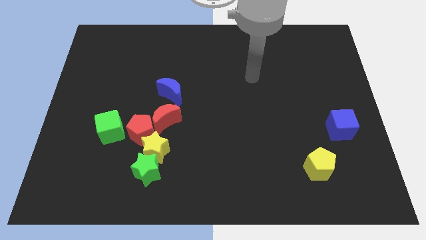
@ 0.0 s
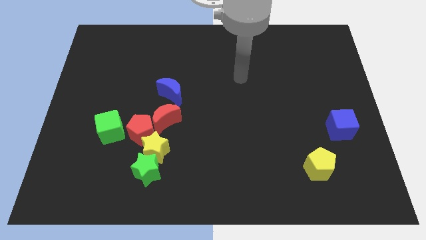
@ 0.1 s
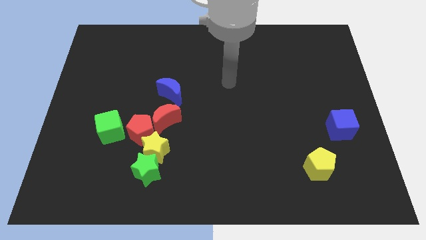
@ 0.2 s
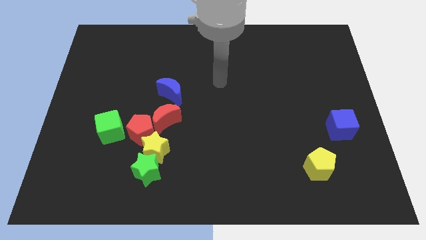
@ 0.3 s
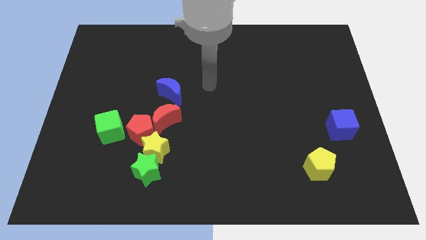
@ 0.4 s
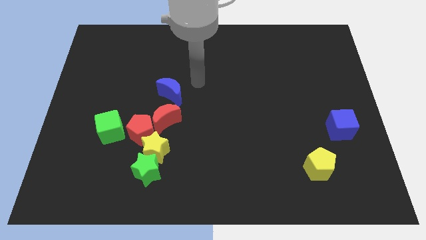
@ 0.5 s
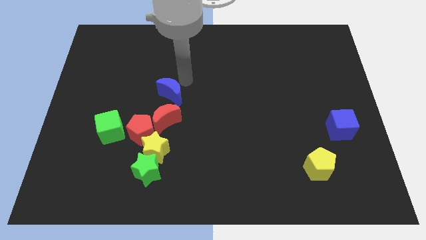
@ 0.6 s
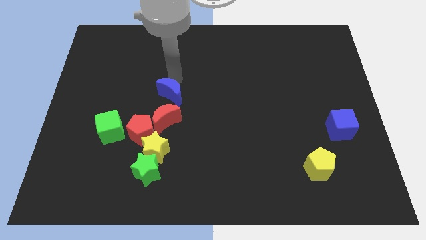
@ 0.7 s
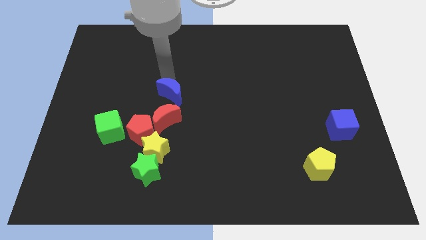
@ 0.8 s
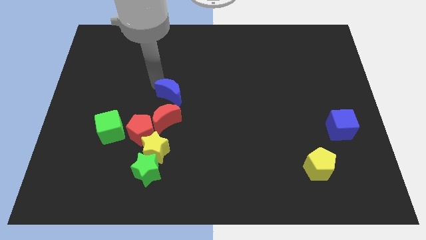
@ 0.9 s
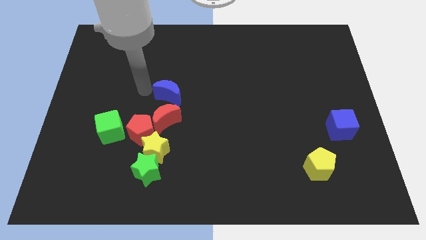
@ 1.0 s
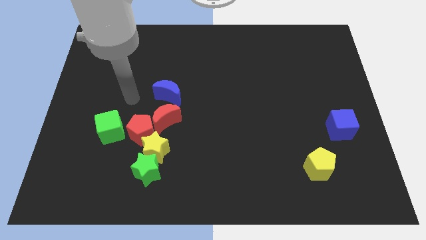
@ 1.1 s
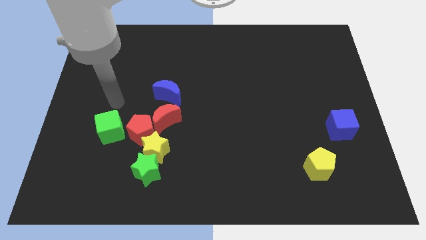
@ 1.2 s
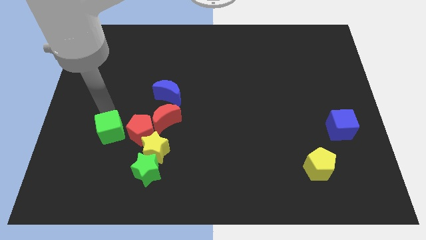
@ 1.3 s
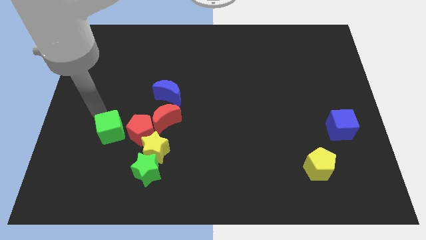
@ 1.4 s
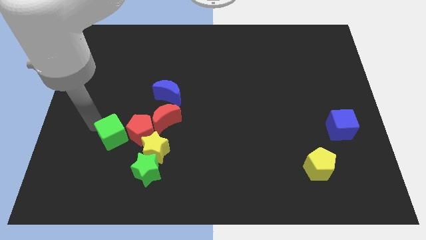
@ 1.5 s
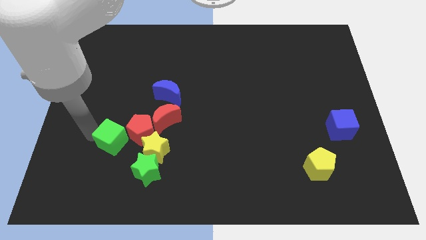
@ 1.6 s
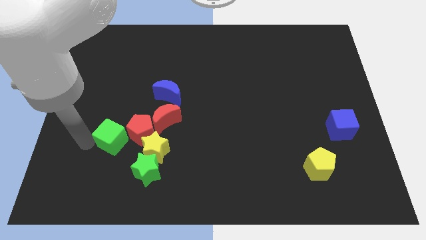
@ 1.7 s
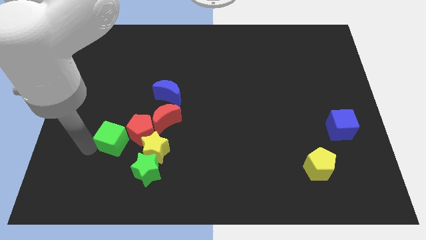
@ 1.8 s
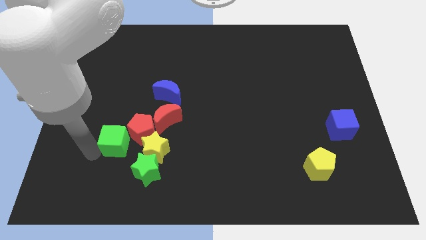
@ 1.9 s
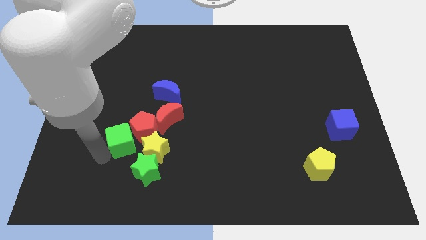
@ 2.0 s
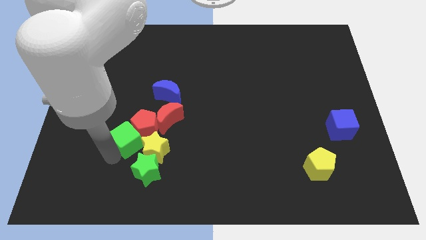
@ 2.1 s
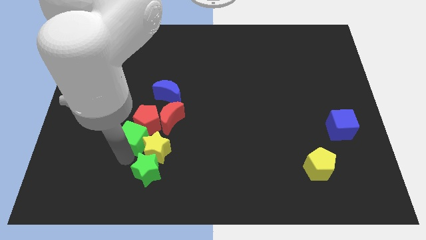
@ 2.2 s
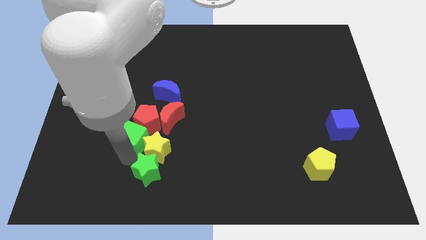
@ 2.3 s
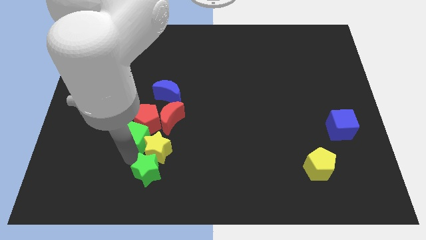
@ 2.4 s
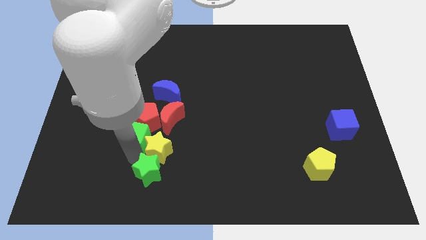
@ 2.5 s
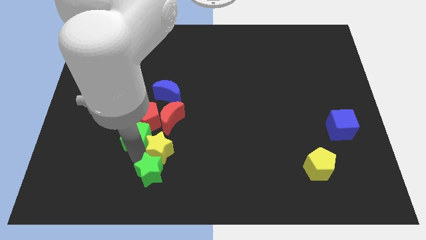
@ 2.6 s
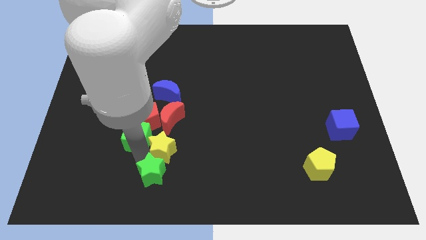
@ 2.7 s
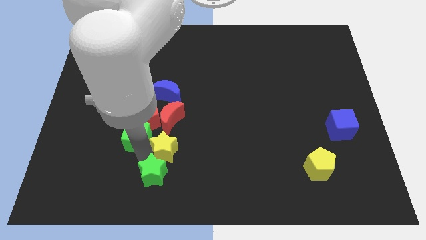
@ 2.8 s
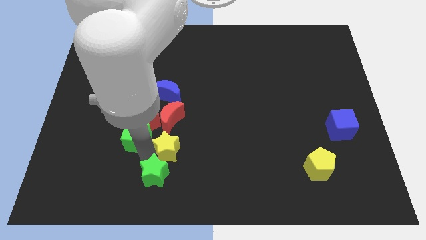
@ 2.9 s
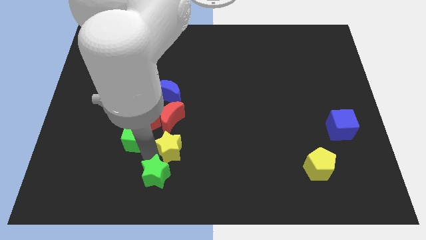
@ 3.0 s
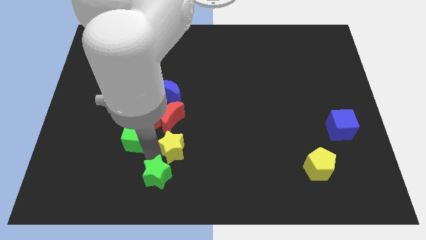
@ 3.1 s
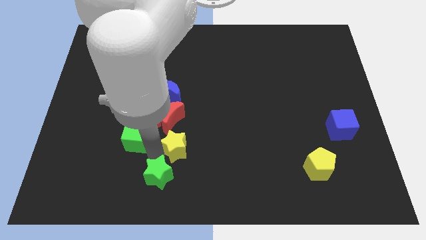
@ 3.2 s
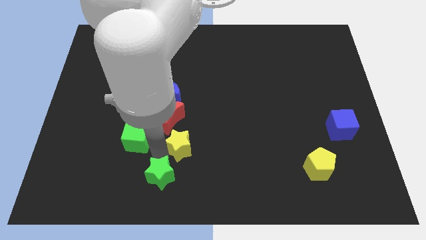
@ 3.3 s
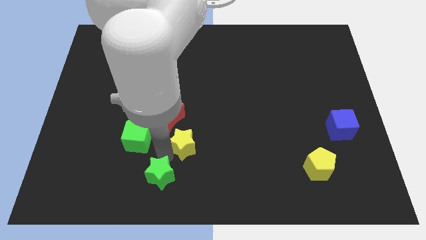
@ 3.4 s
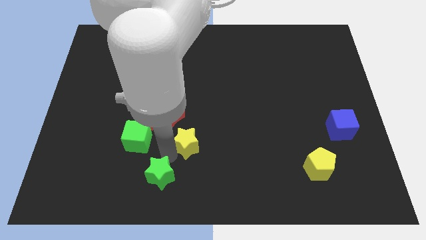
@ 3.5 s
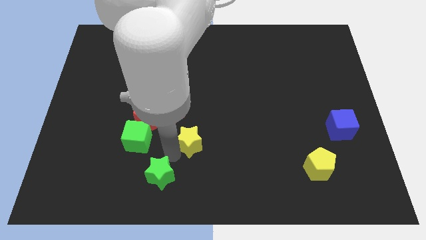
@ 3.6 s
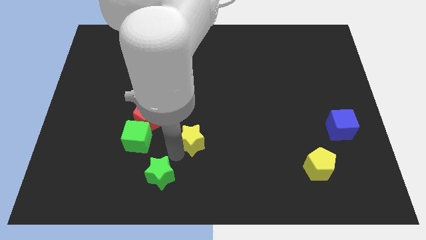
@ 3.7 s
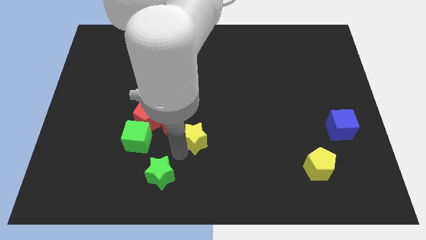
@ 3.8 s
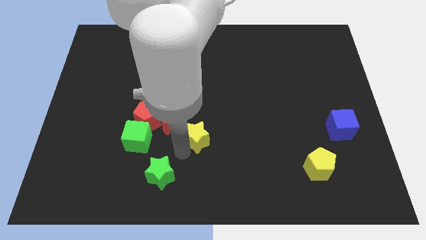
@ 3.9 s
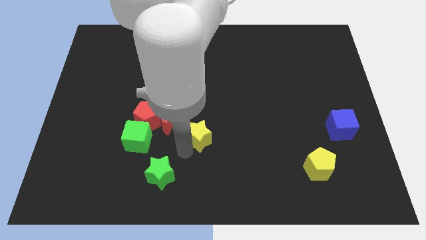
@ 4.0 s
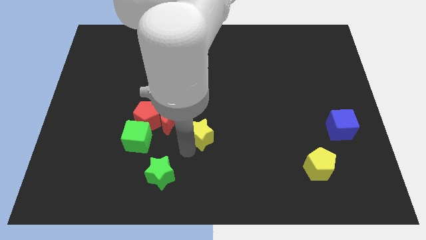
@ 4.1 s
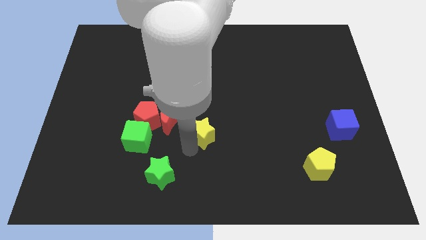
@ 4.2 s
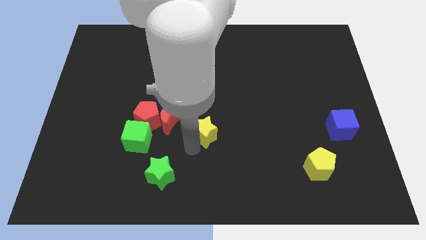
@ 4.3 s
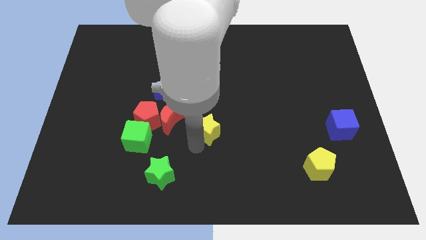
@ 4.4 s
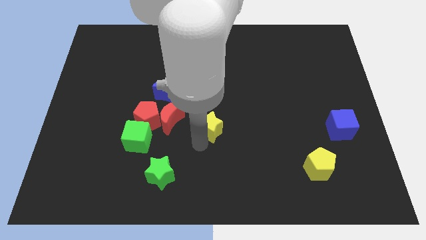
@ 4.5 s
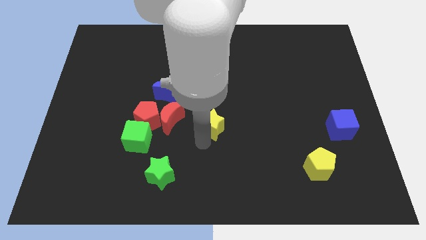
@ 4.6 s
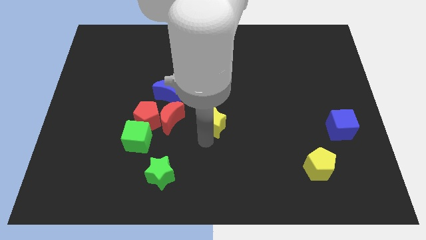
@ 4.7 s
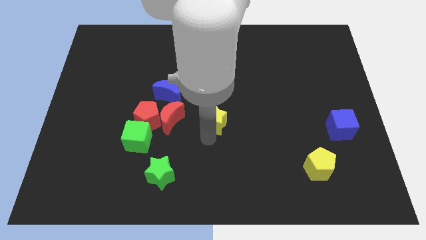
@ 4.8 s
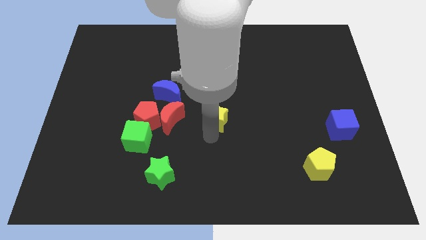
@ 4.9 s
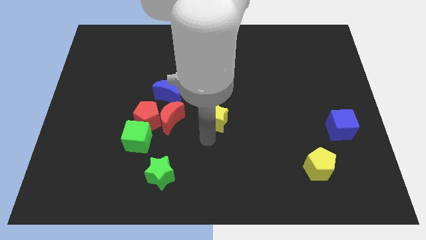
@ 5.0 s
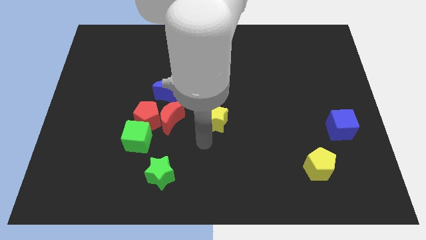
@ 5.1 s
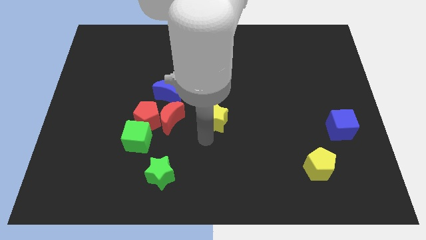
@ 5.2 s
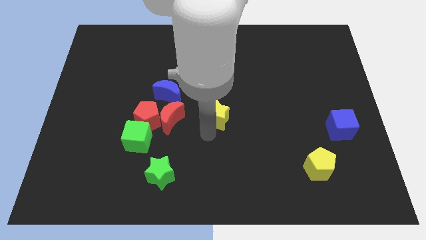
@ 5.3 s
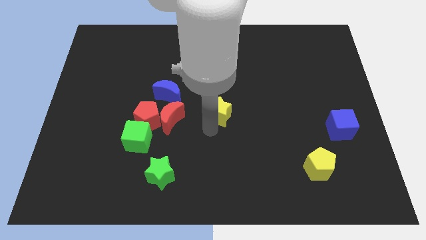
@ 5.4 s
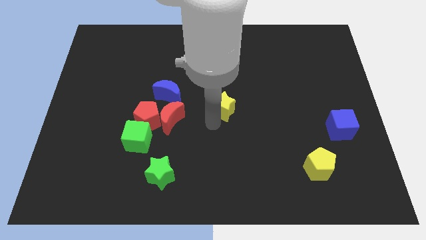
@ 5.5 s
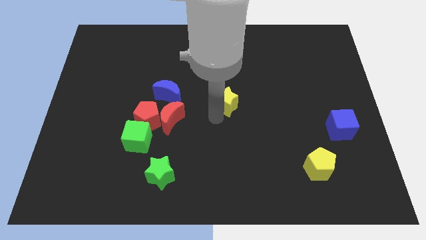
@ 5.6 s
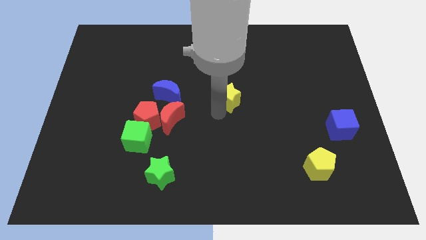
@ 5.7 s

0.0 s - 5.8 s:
slide the yellow star diagonally up and to the right

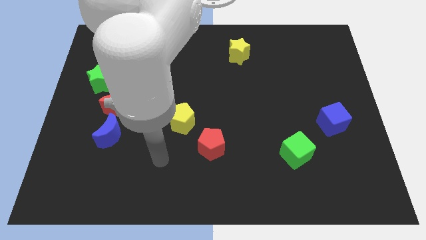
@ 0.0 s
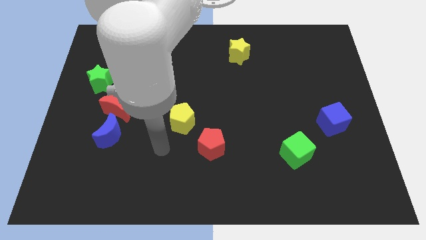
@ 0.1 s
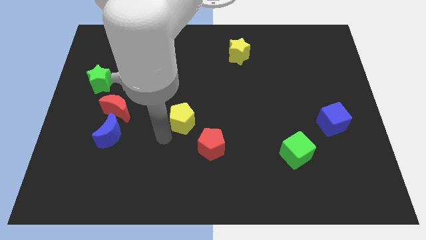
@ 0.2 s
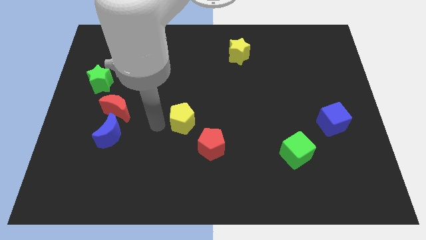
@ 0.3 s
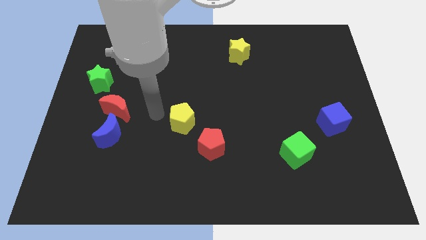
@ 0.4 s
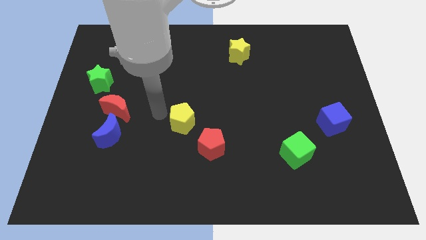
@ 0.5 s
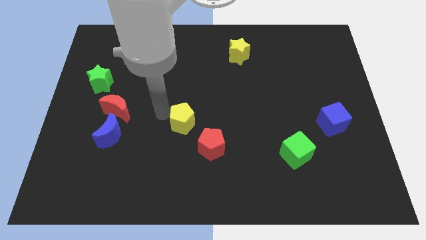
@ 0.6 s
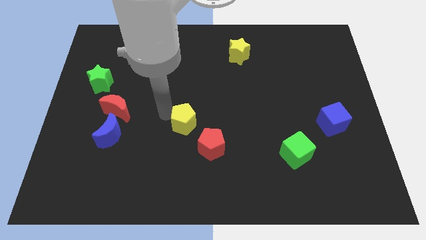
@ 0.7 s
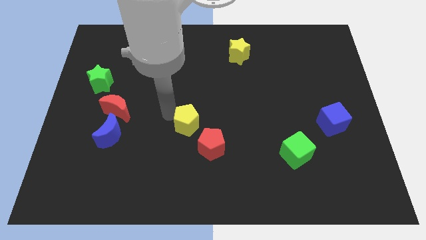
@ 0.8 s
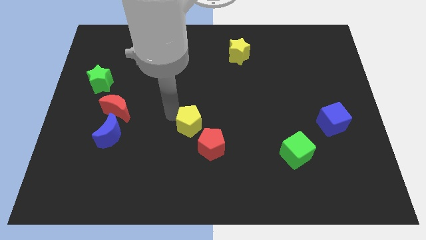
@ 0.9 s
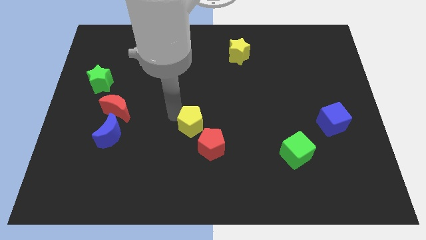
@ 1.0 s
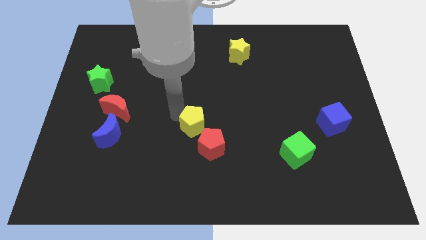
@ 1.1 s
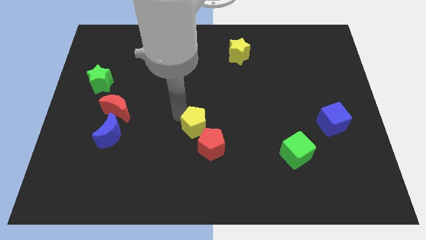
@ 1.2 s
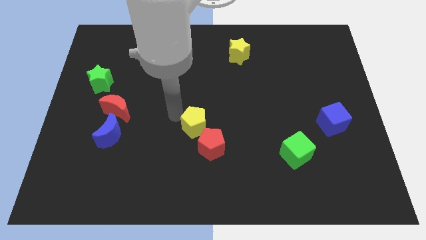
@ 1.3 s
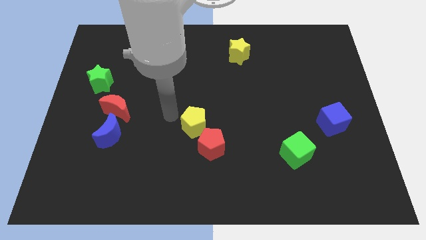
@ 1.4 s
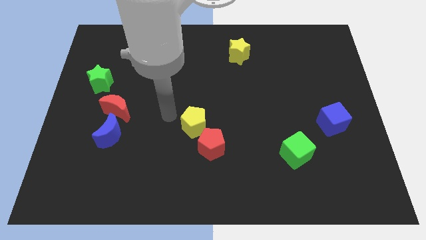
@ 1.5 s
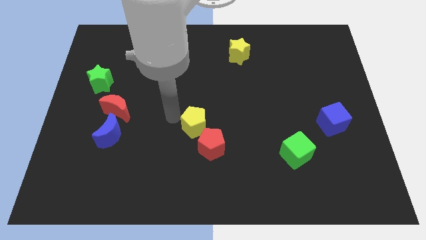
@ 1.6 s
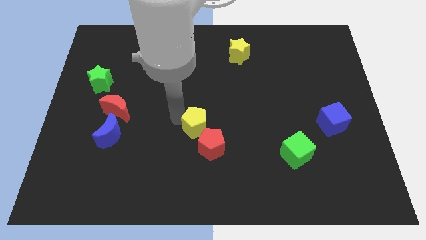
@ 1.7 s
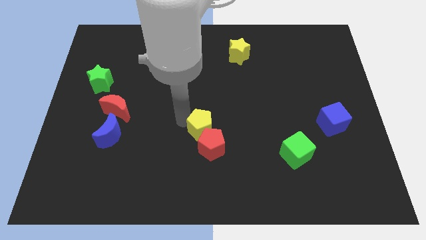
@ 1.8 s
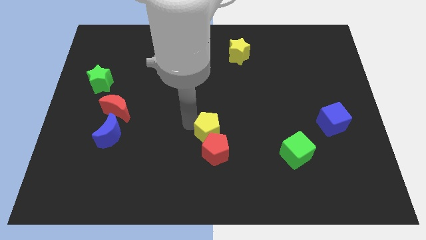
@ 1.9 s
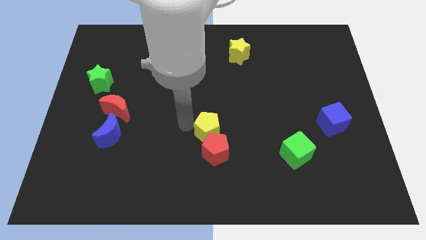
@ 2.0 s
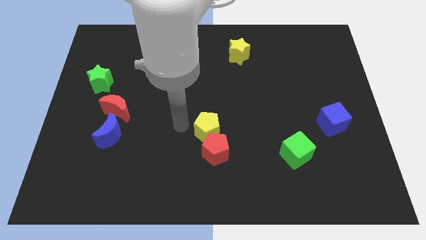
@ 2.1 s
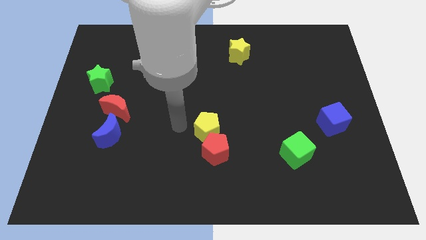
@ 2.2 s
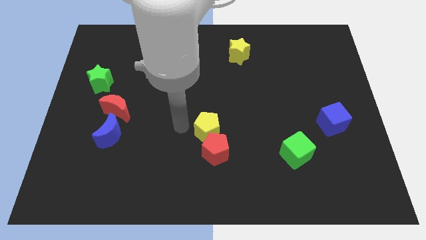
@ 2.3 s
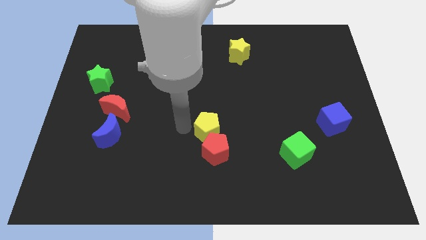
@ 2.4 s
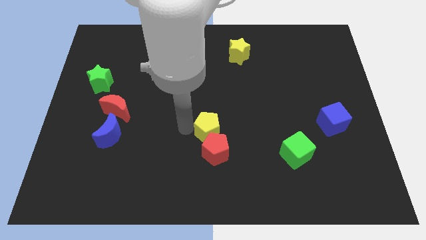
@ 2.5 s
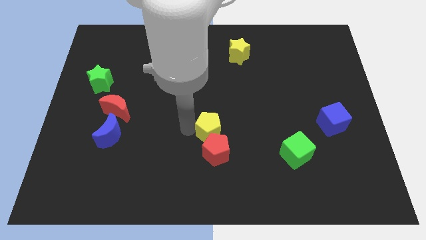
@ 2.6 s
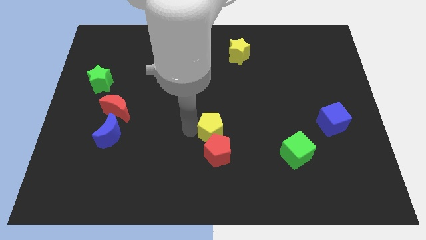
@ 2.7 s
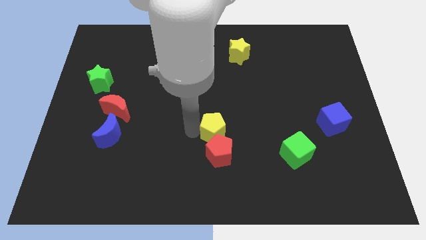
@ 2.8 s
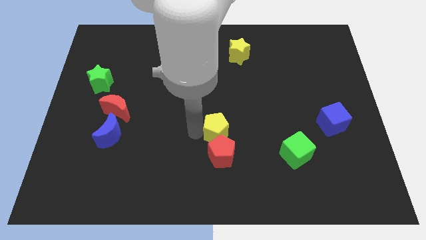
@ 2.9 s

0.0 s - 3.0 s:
slightly push the yellow pentagon down and right
